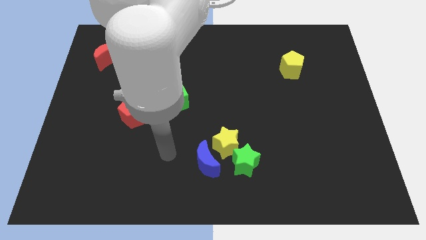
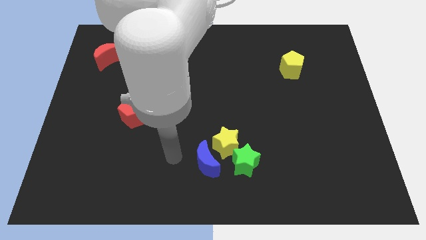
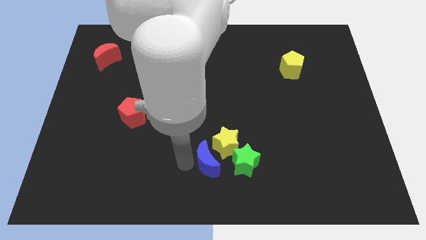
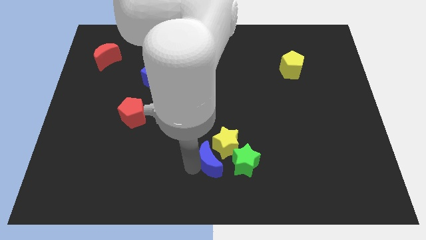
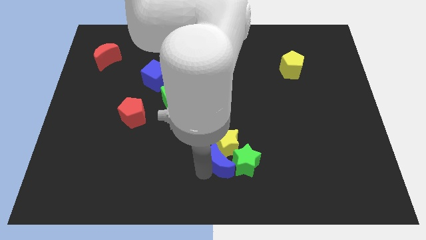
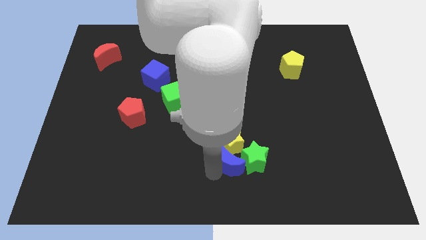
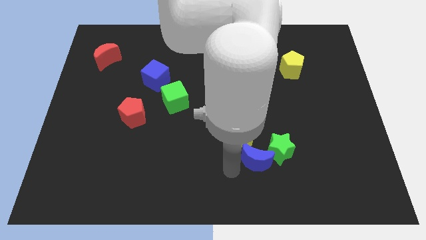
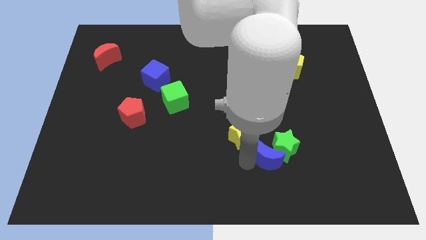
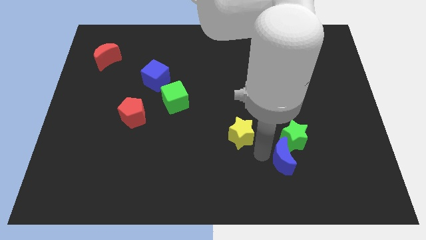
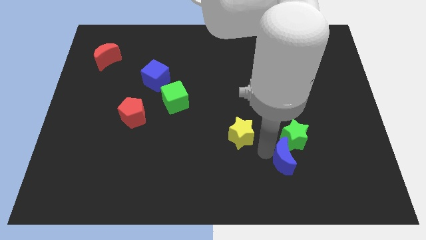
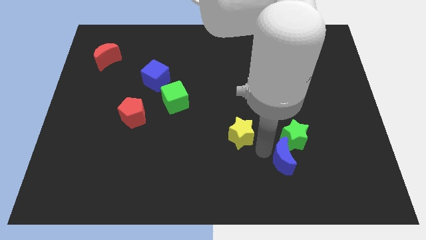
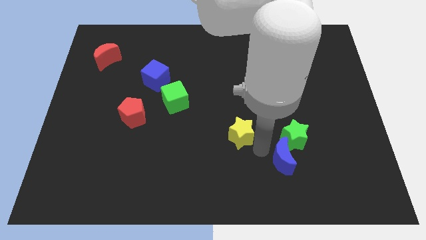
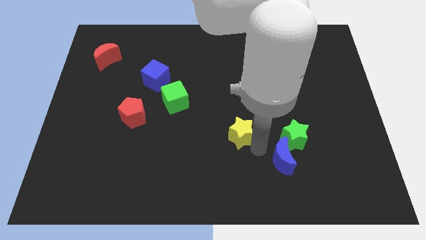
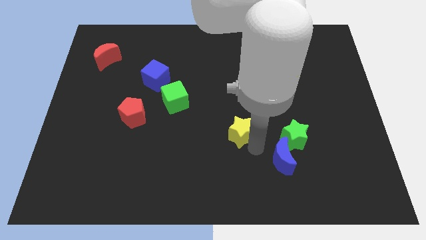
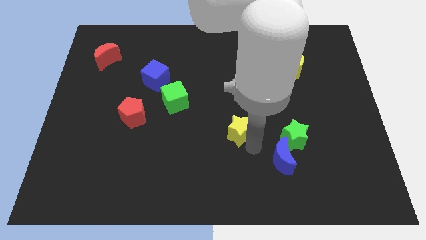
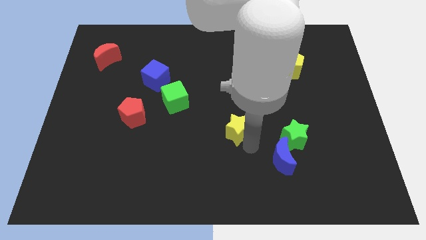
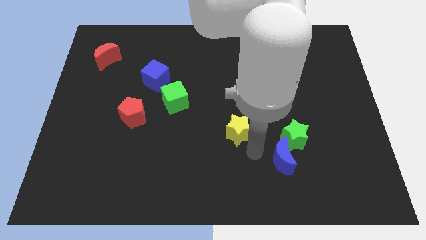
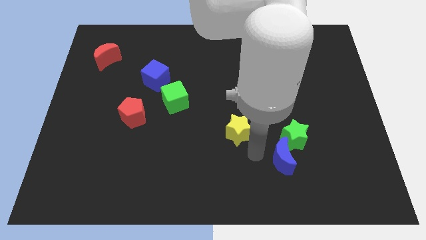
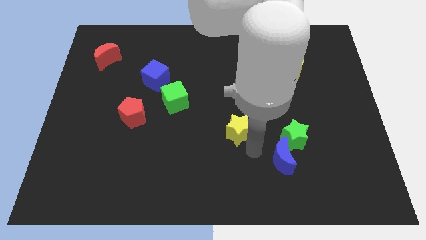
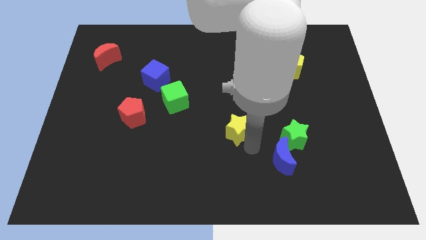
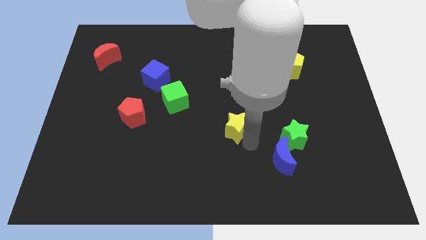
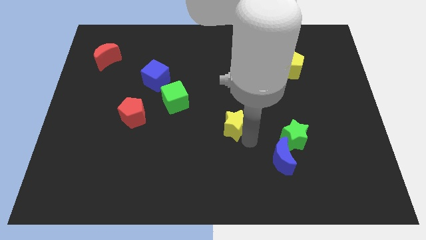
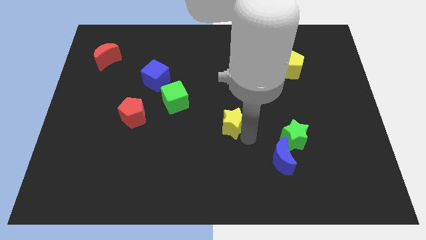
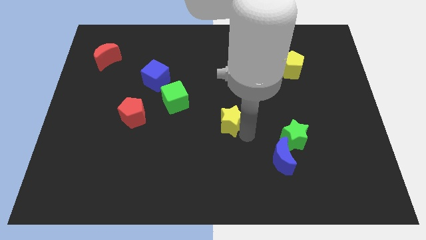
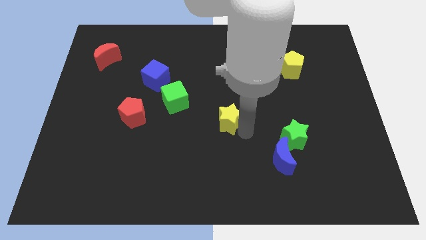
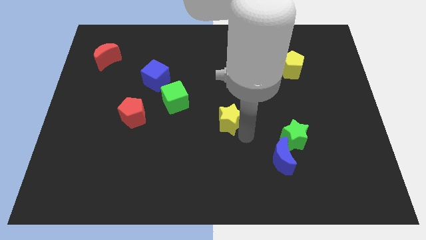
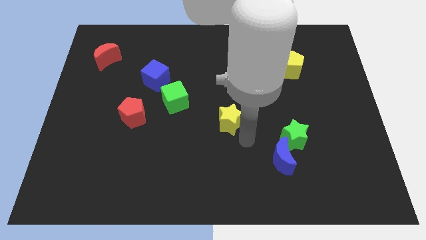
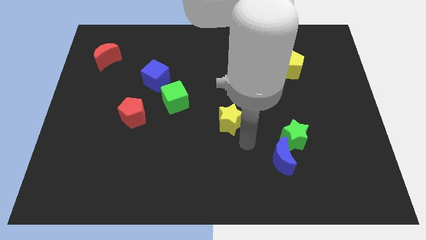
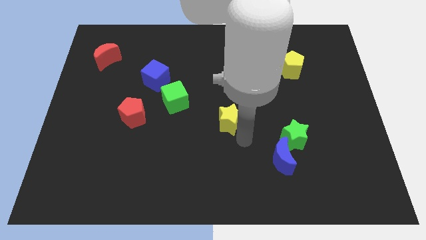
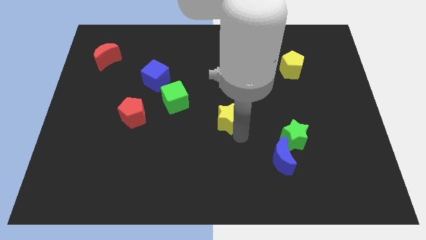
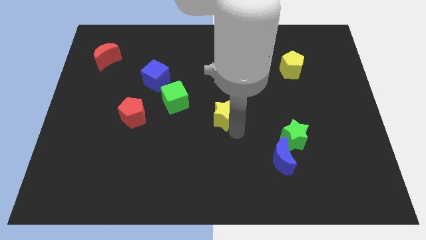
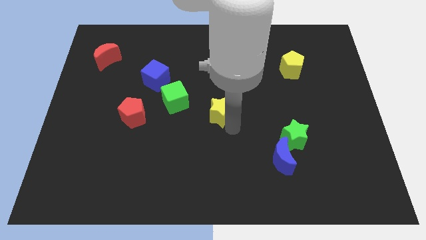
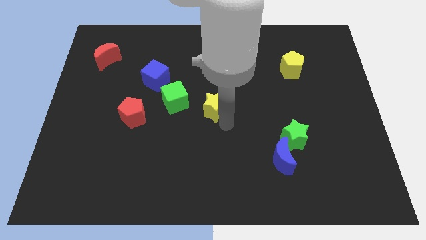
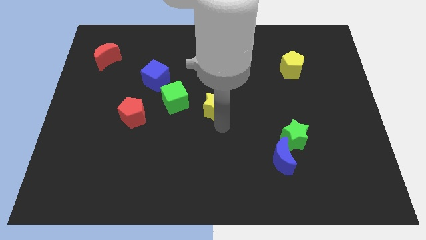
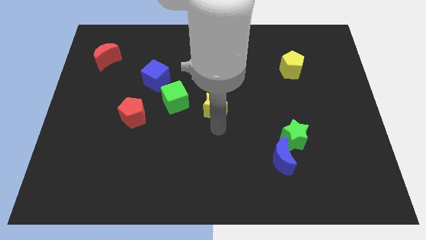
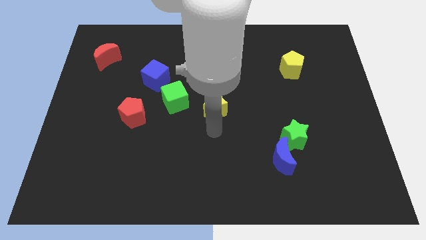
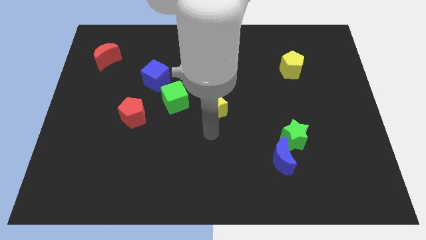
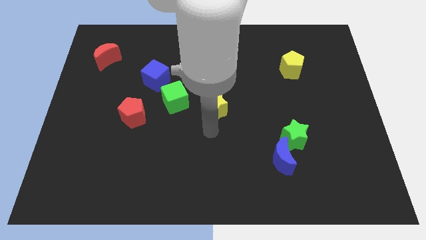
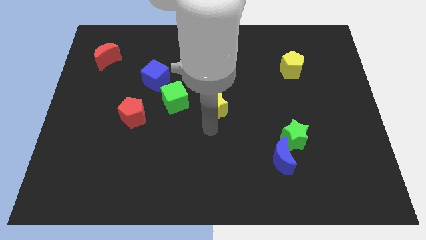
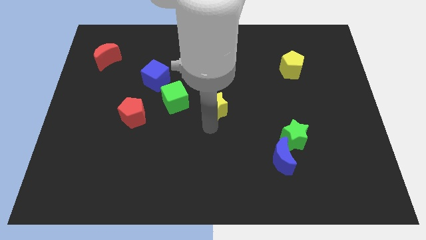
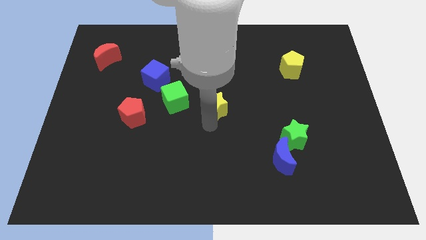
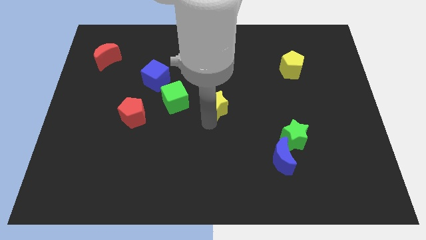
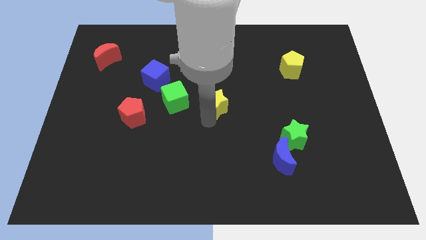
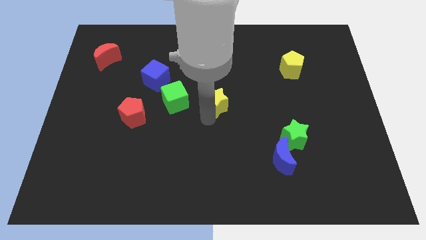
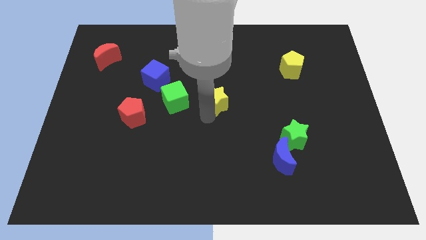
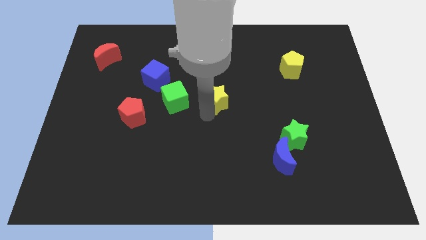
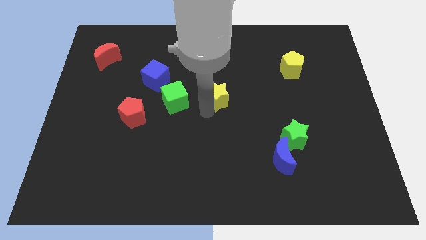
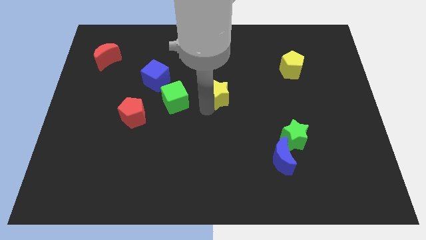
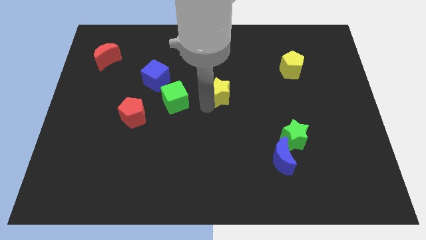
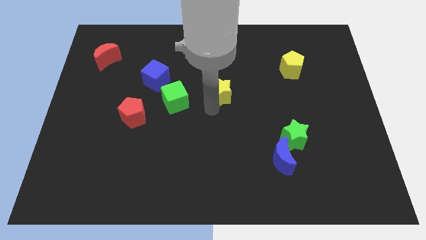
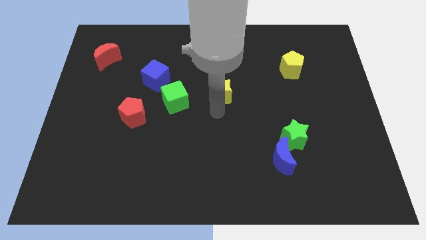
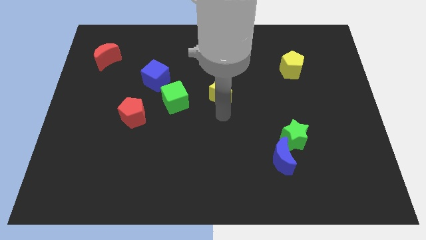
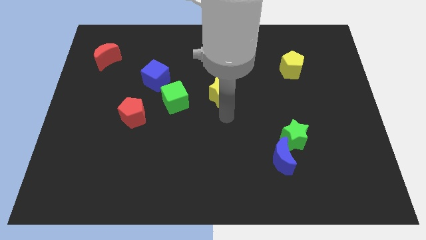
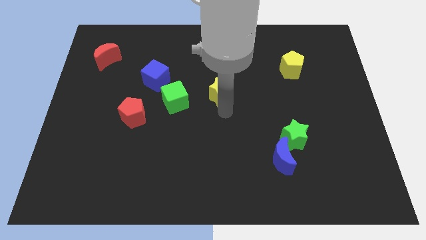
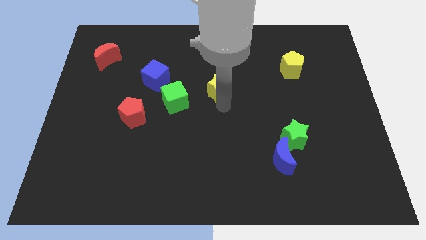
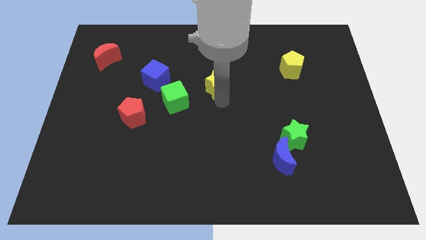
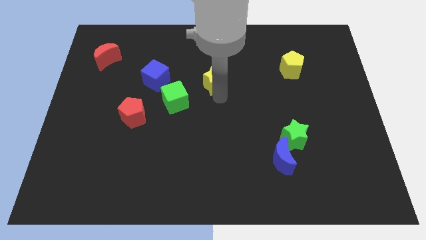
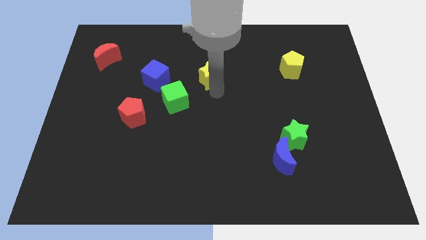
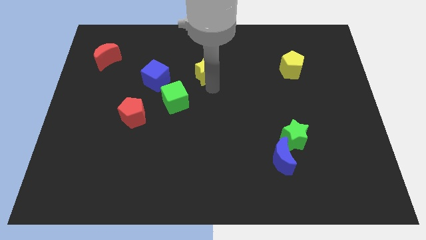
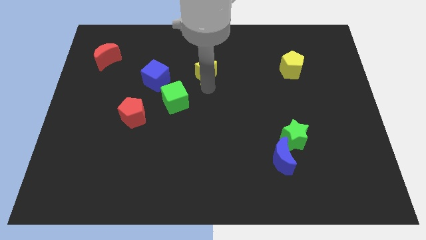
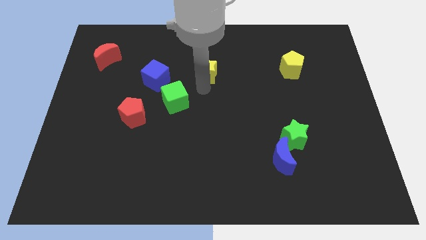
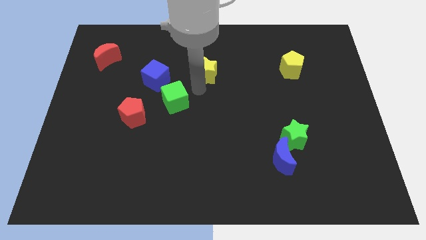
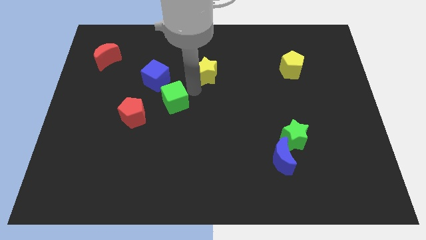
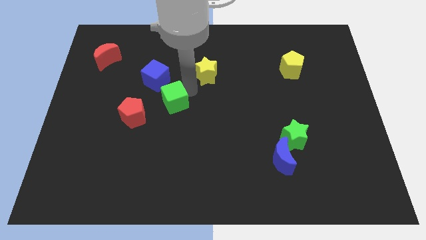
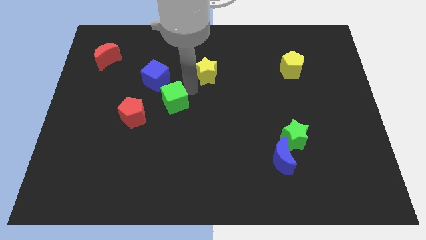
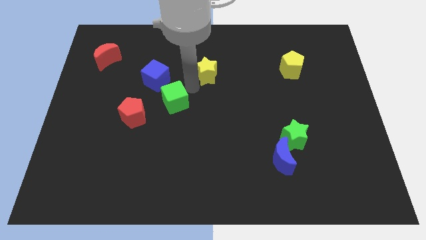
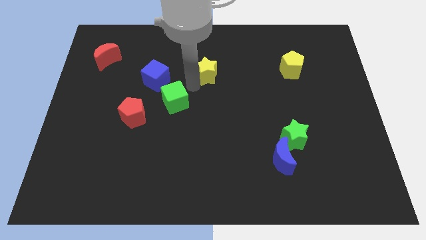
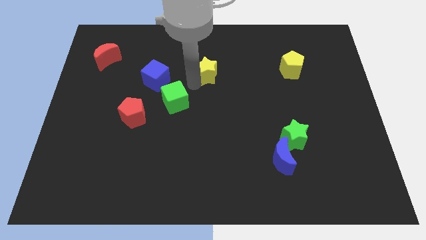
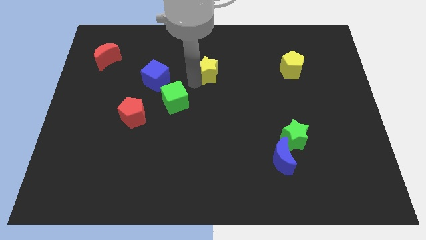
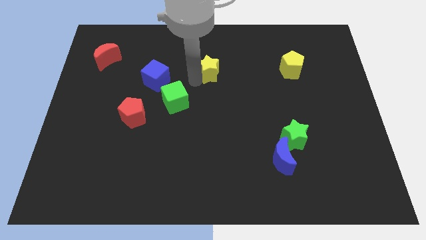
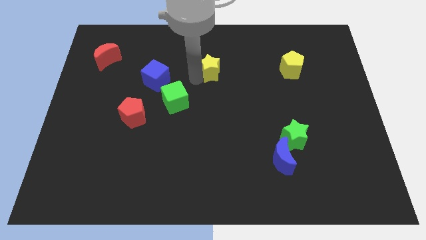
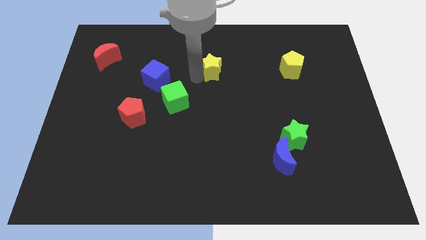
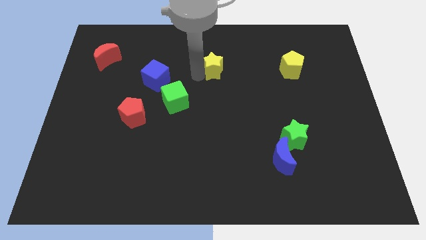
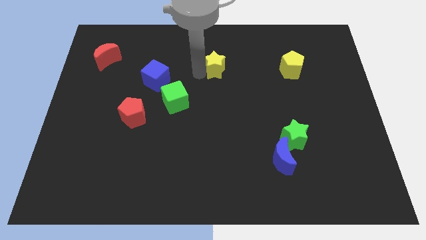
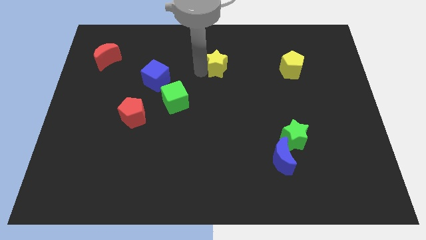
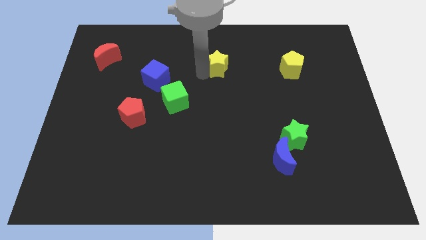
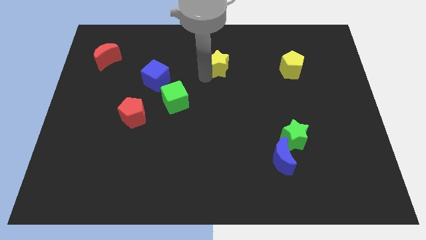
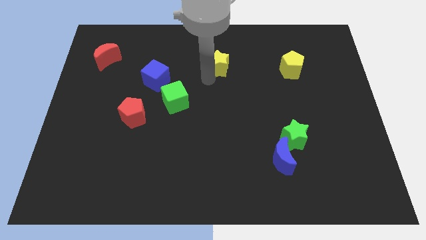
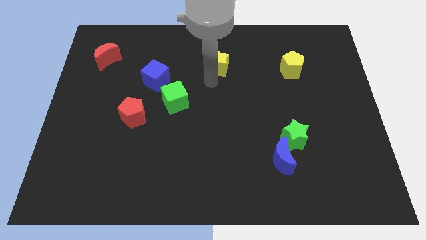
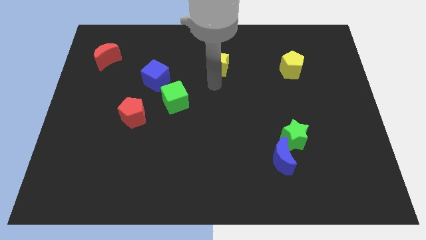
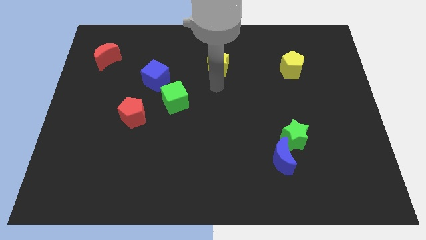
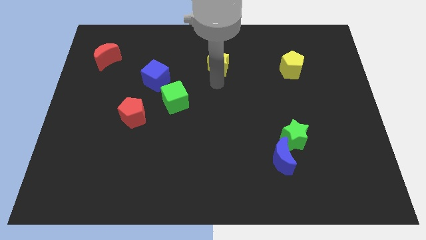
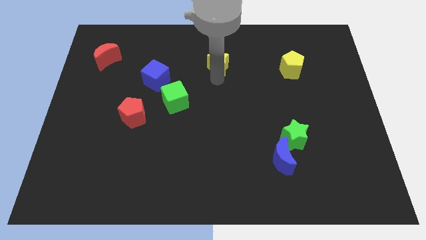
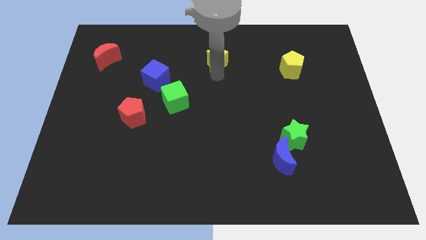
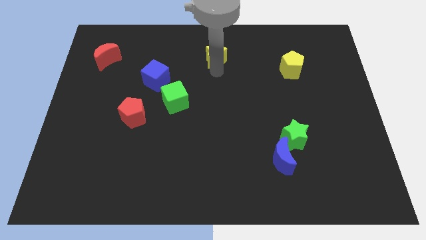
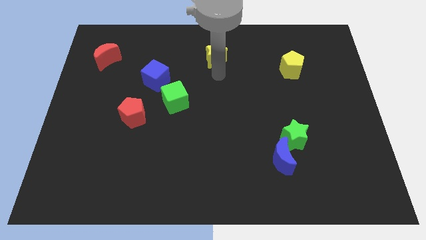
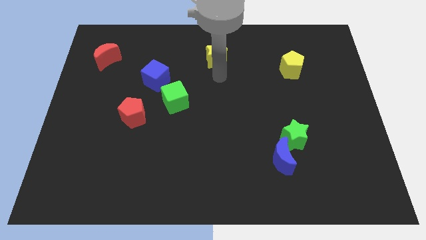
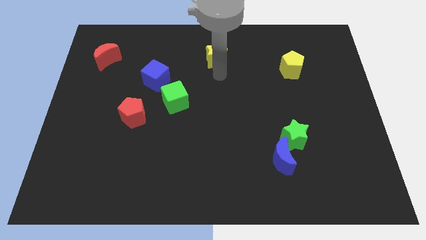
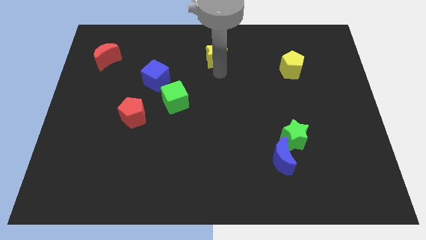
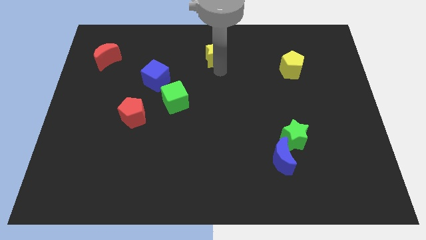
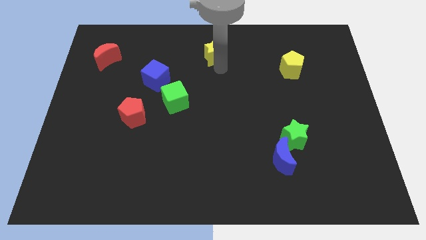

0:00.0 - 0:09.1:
move the yellow star to the top side
